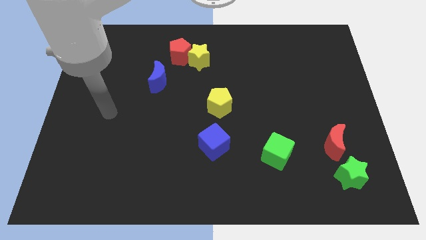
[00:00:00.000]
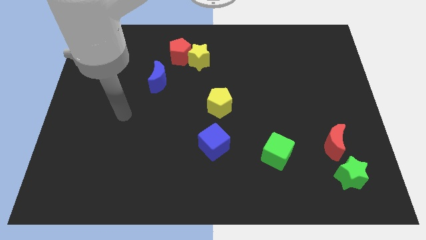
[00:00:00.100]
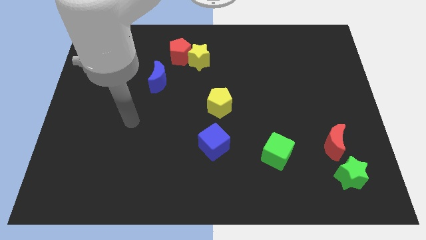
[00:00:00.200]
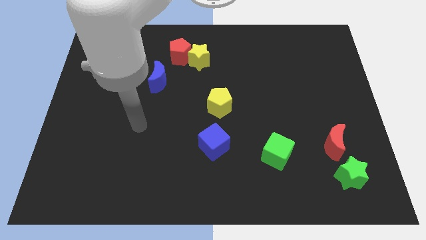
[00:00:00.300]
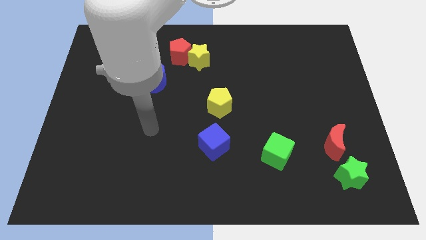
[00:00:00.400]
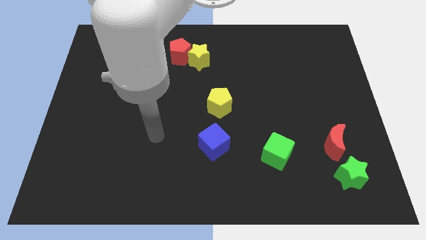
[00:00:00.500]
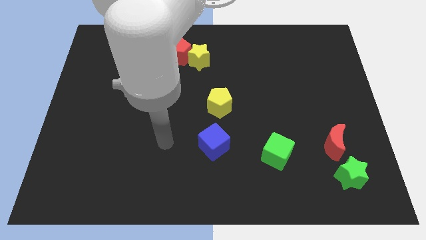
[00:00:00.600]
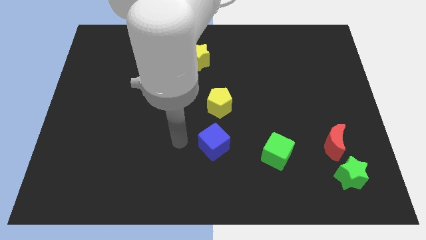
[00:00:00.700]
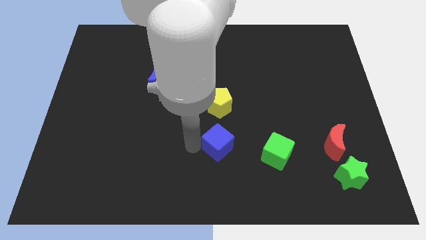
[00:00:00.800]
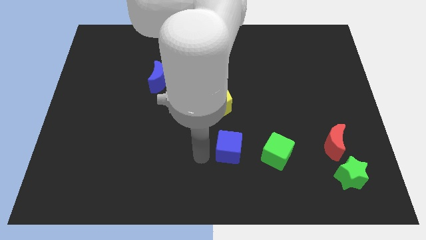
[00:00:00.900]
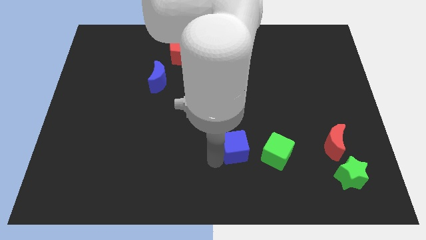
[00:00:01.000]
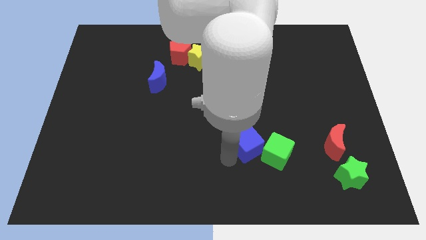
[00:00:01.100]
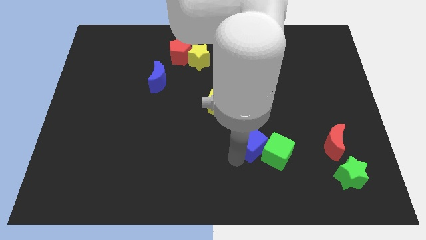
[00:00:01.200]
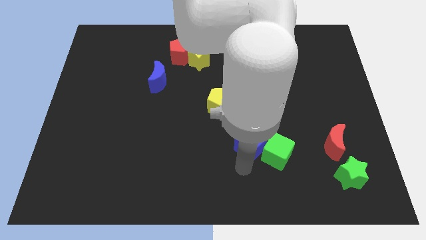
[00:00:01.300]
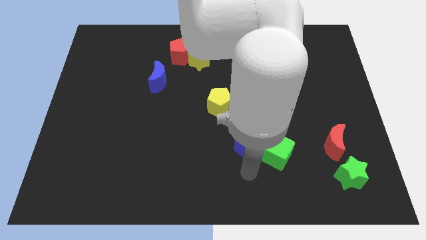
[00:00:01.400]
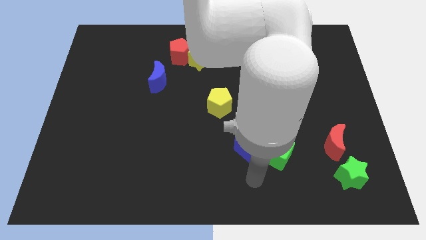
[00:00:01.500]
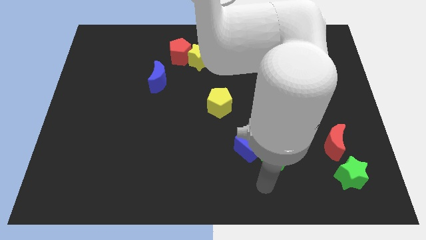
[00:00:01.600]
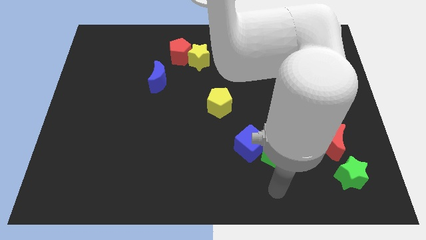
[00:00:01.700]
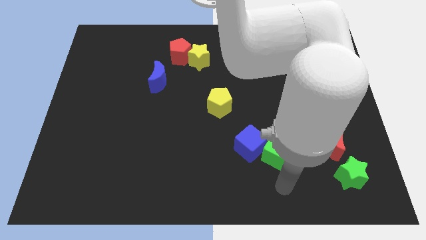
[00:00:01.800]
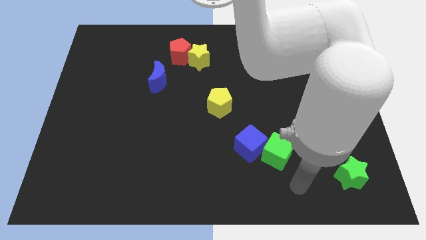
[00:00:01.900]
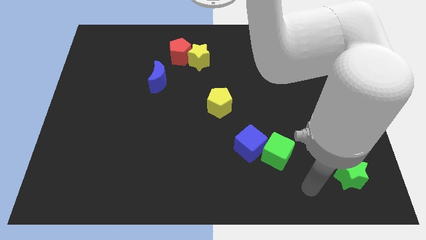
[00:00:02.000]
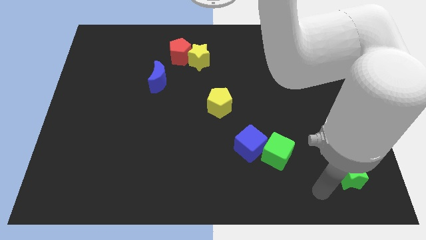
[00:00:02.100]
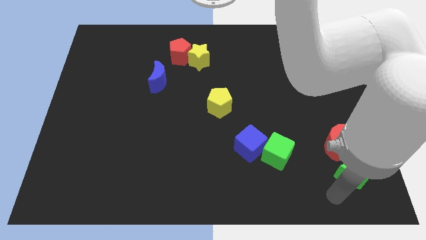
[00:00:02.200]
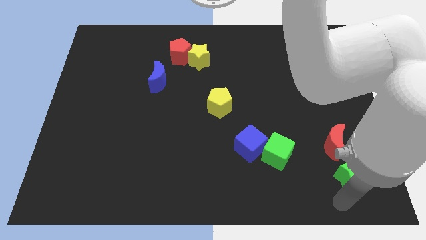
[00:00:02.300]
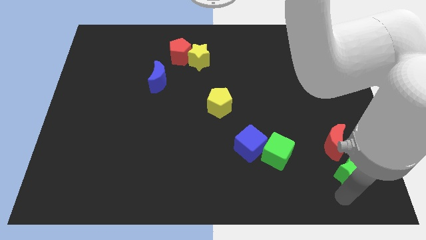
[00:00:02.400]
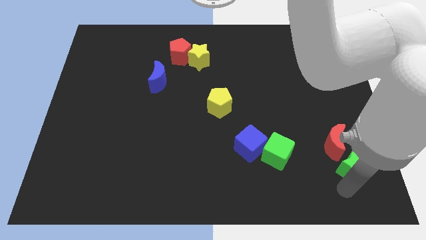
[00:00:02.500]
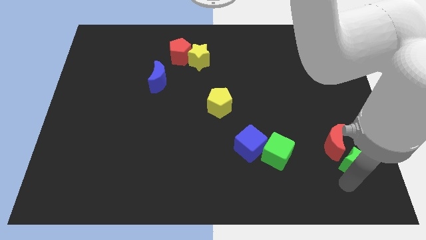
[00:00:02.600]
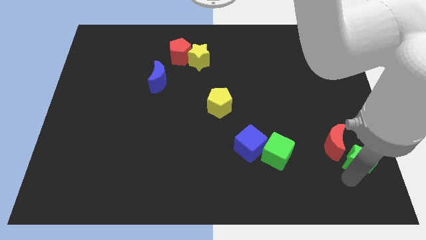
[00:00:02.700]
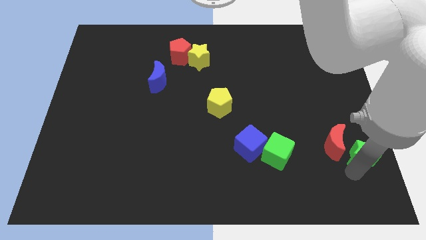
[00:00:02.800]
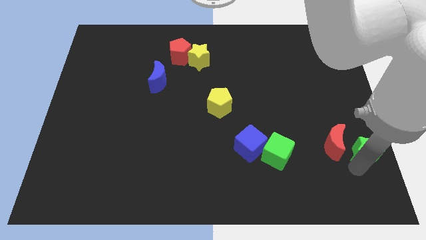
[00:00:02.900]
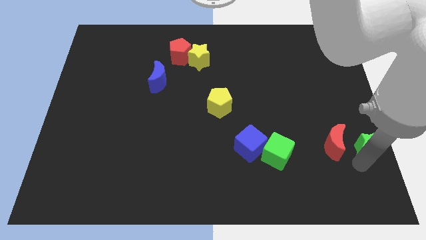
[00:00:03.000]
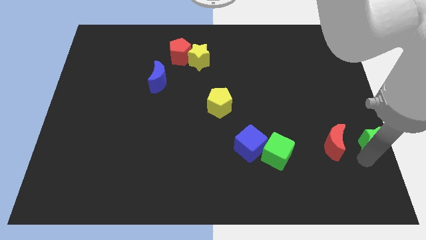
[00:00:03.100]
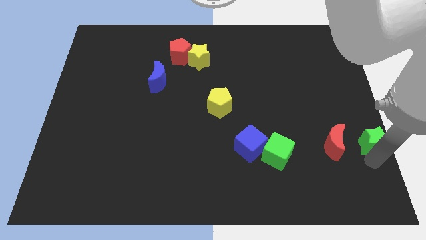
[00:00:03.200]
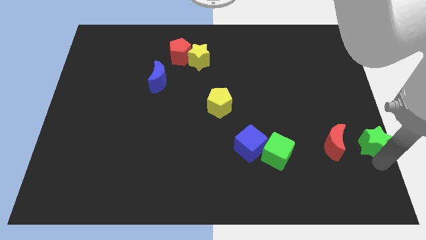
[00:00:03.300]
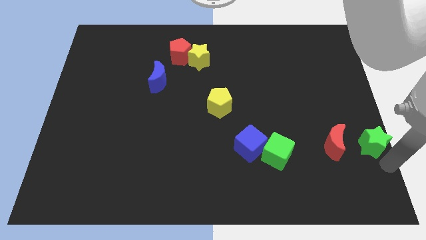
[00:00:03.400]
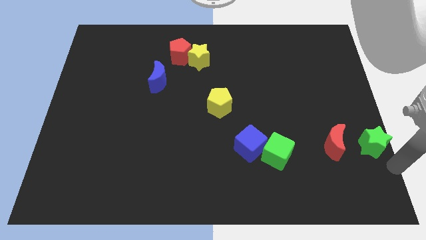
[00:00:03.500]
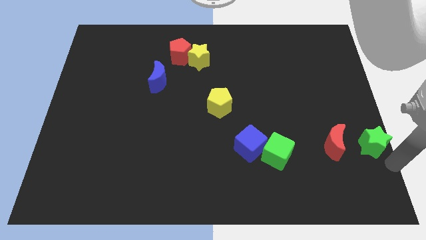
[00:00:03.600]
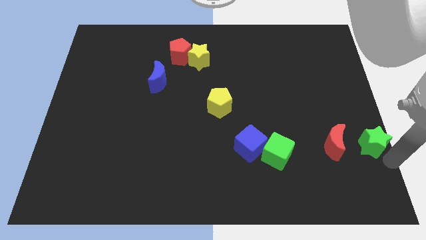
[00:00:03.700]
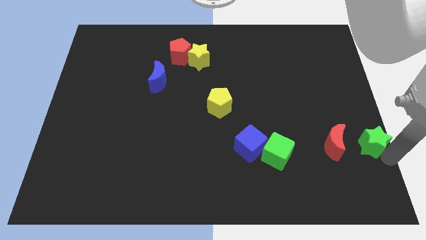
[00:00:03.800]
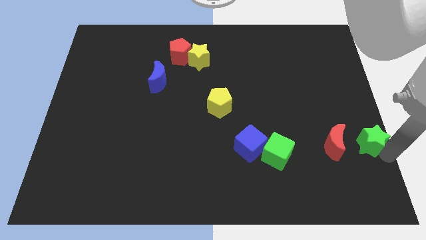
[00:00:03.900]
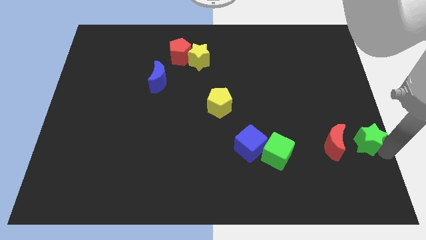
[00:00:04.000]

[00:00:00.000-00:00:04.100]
slightly push the green star upwards

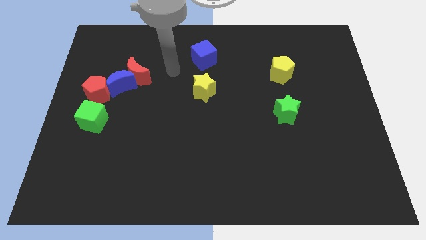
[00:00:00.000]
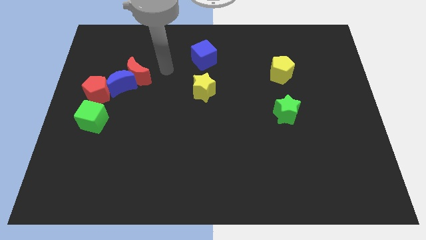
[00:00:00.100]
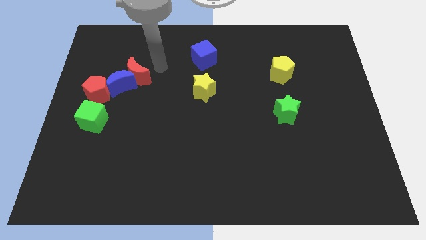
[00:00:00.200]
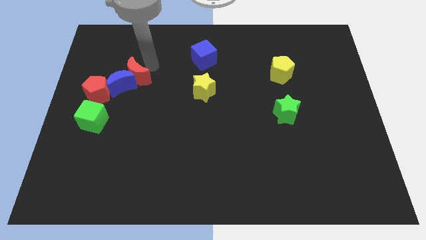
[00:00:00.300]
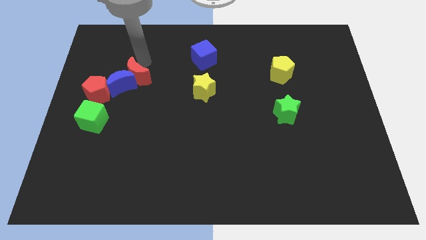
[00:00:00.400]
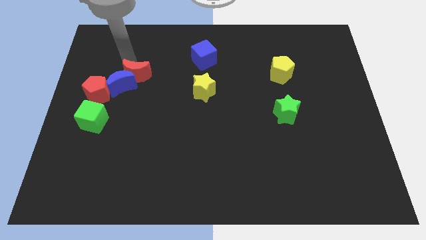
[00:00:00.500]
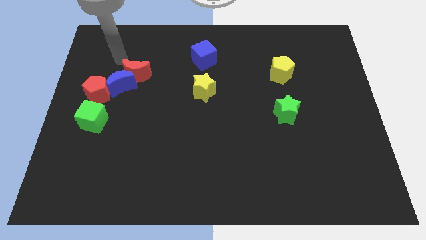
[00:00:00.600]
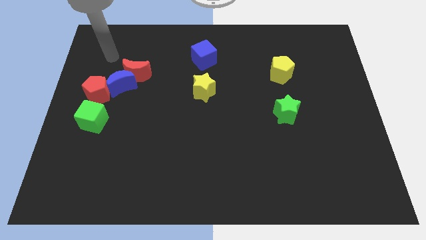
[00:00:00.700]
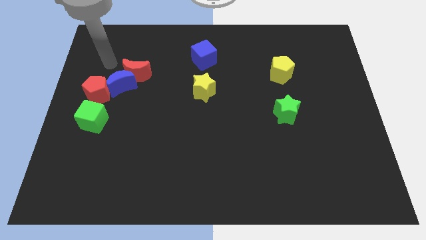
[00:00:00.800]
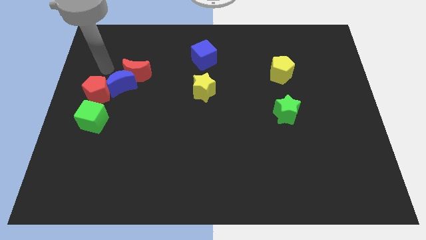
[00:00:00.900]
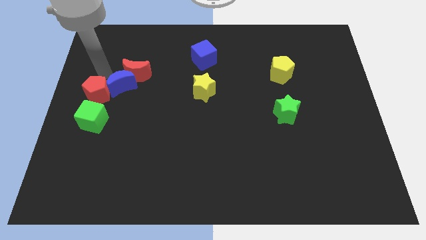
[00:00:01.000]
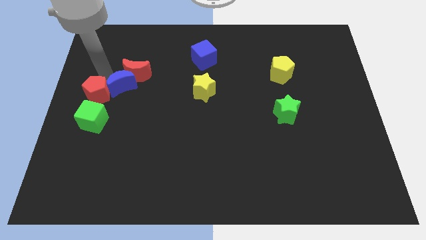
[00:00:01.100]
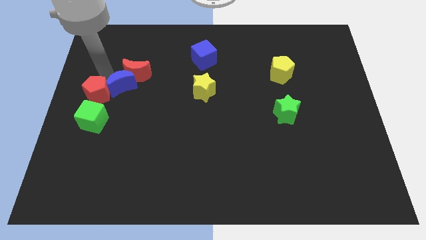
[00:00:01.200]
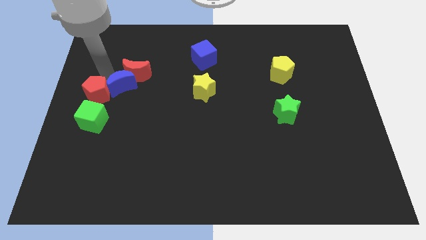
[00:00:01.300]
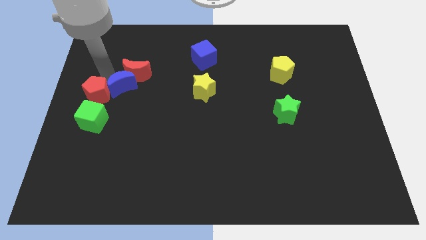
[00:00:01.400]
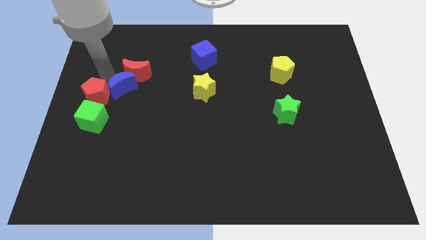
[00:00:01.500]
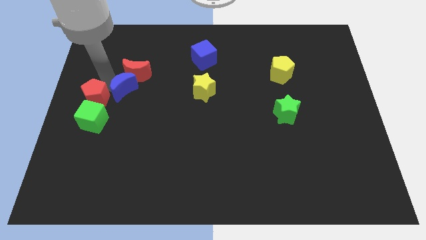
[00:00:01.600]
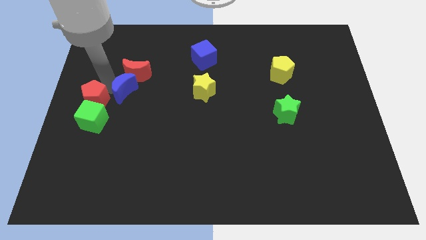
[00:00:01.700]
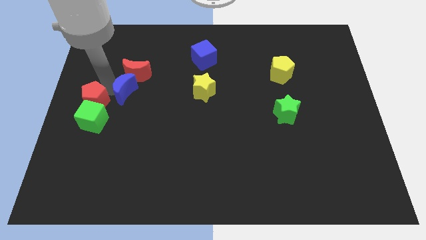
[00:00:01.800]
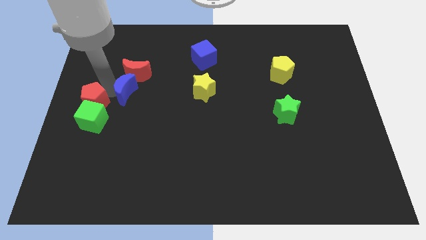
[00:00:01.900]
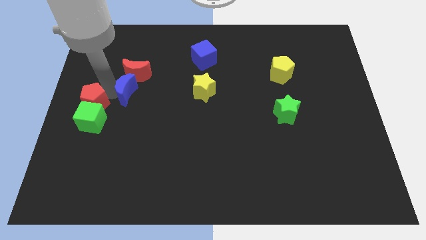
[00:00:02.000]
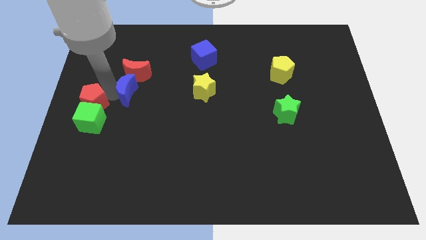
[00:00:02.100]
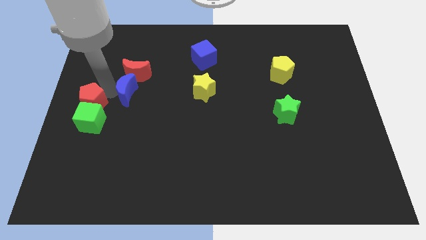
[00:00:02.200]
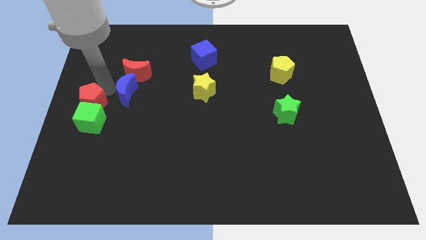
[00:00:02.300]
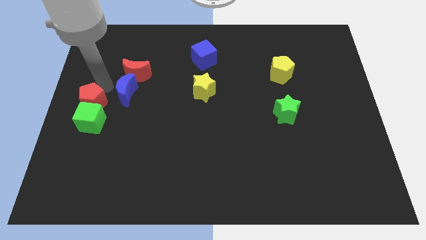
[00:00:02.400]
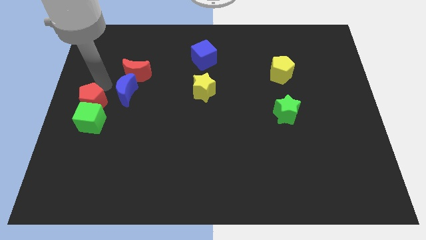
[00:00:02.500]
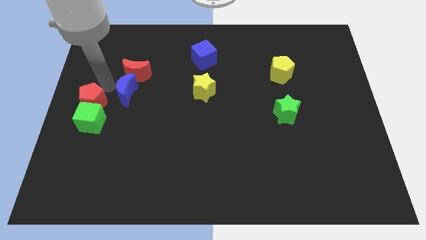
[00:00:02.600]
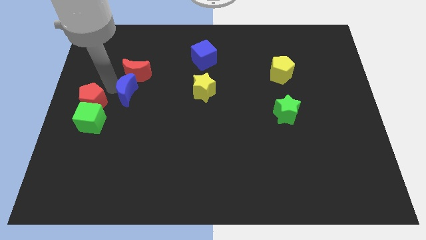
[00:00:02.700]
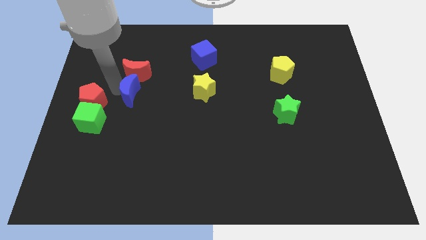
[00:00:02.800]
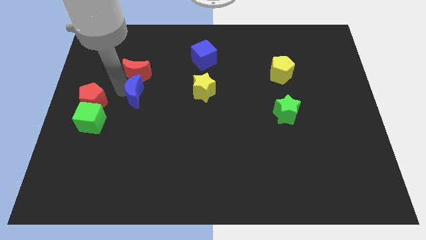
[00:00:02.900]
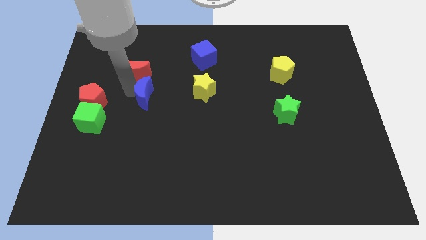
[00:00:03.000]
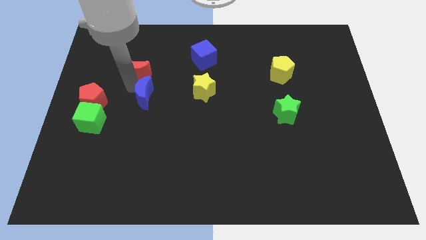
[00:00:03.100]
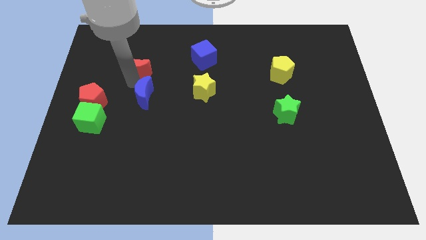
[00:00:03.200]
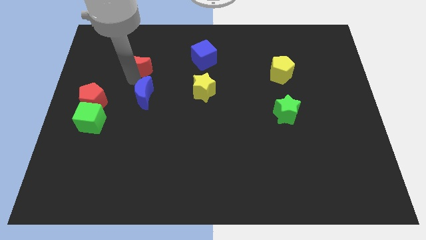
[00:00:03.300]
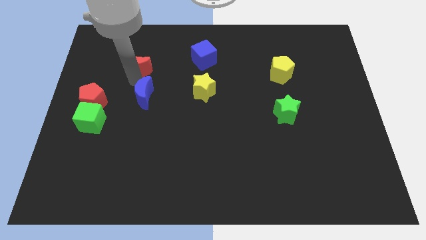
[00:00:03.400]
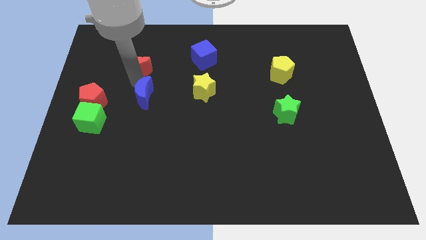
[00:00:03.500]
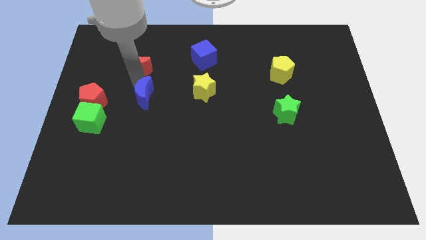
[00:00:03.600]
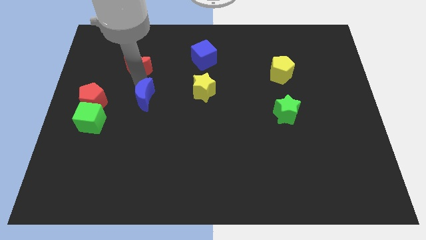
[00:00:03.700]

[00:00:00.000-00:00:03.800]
move the blue moon a little bit down and then to the right

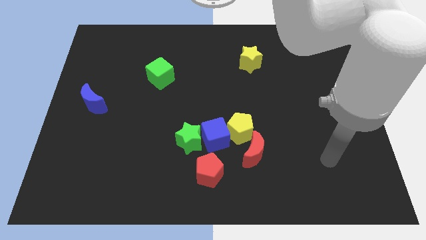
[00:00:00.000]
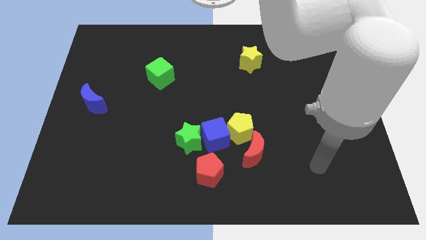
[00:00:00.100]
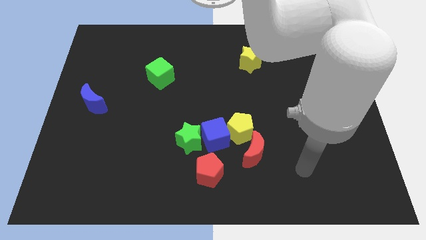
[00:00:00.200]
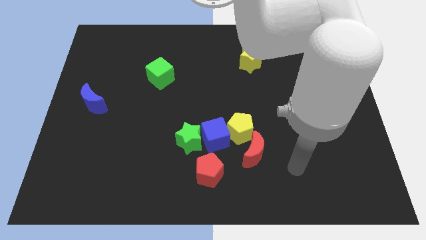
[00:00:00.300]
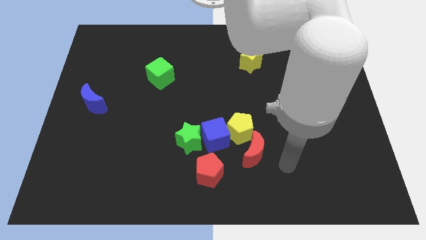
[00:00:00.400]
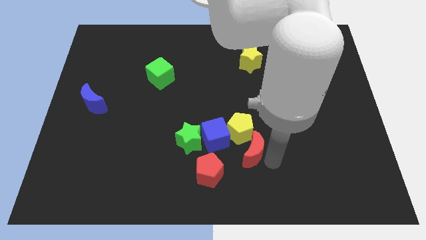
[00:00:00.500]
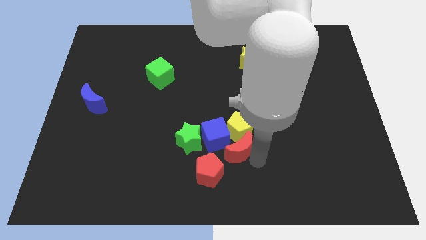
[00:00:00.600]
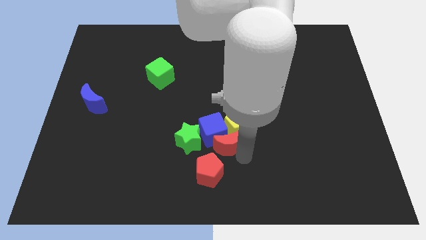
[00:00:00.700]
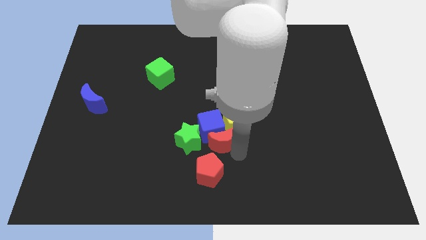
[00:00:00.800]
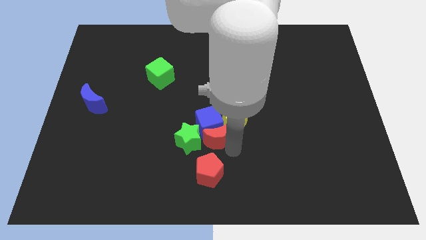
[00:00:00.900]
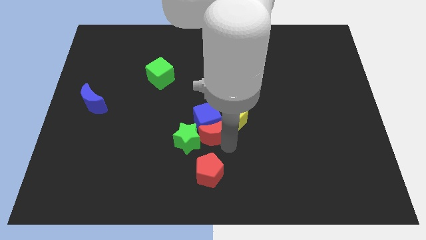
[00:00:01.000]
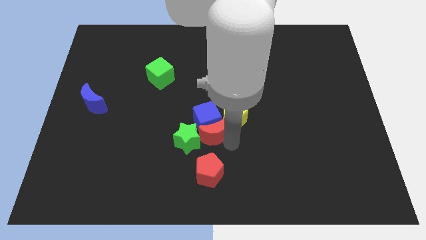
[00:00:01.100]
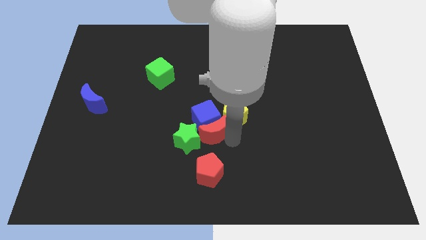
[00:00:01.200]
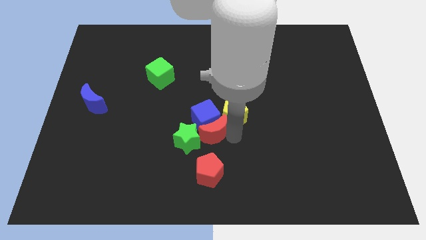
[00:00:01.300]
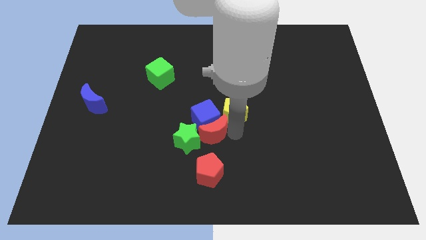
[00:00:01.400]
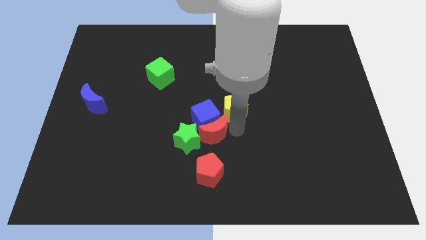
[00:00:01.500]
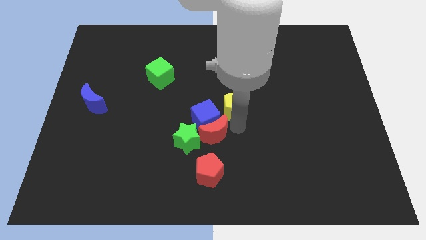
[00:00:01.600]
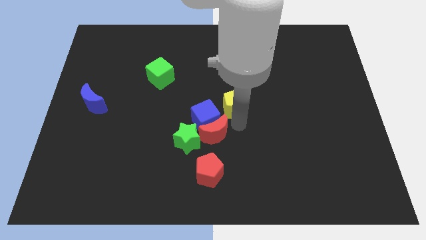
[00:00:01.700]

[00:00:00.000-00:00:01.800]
slightly slide the yellow pentagon up
